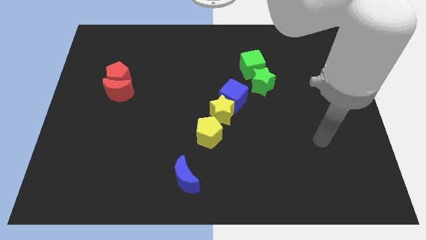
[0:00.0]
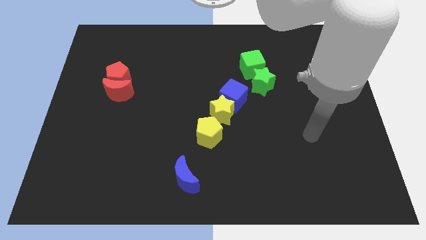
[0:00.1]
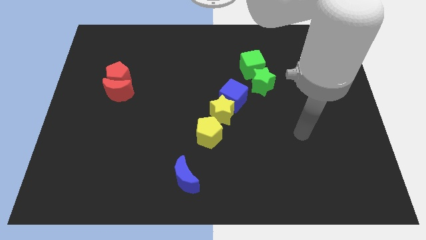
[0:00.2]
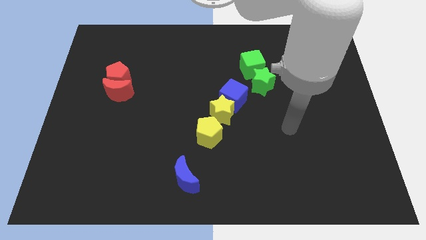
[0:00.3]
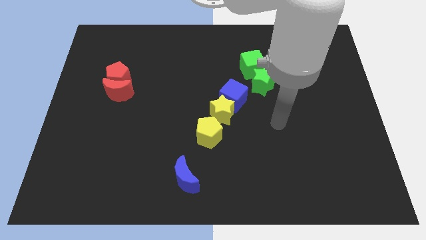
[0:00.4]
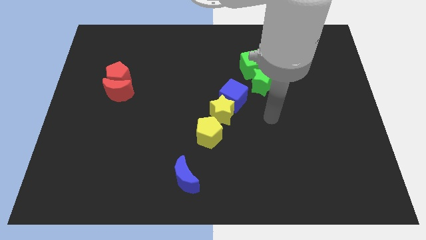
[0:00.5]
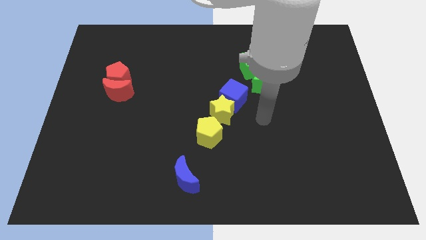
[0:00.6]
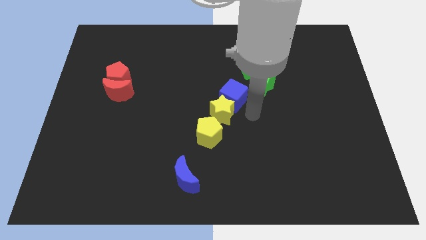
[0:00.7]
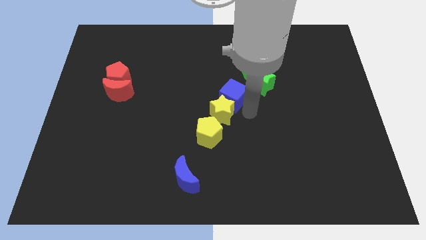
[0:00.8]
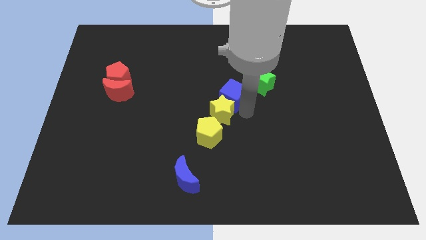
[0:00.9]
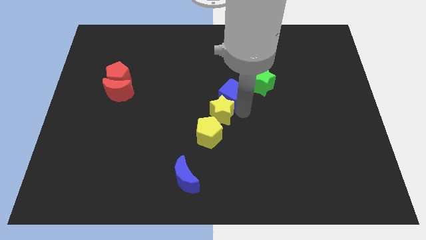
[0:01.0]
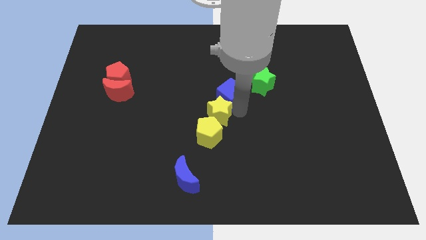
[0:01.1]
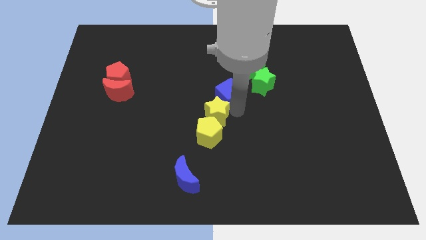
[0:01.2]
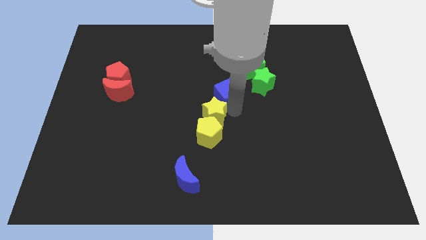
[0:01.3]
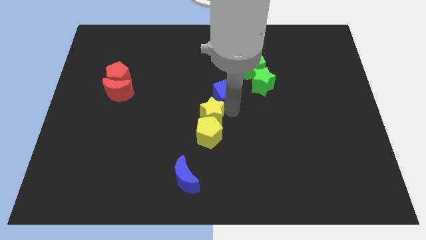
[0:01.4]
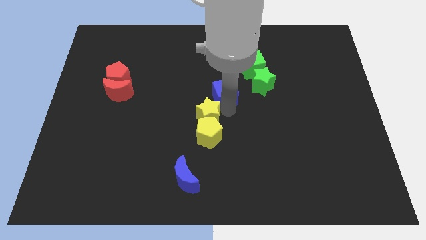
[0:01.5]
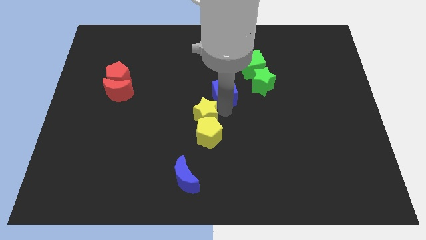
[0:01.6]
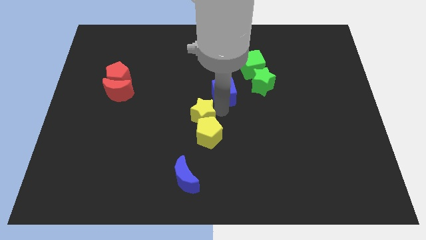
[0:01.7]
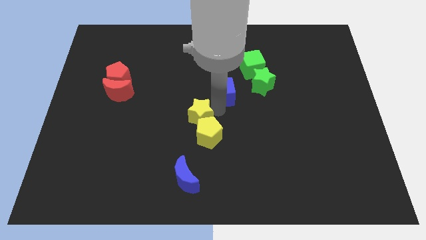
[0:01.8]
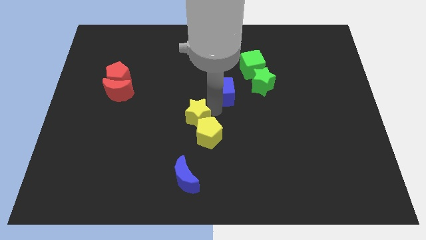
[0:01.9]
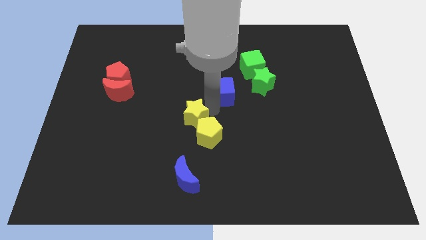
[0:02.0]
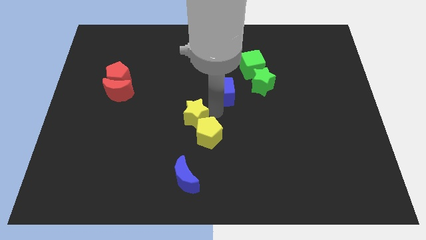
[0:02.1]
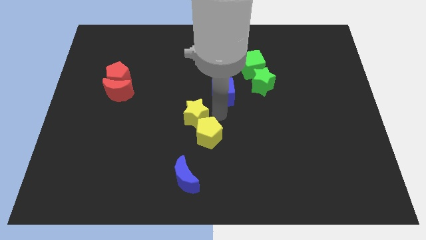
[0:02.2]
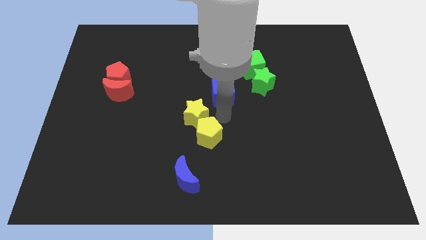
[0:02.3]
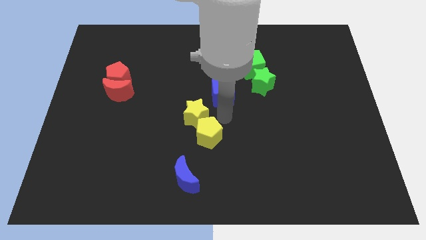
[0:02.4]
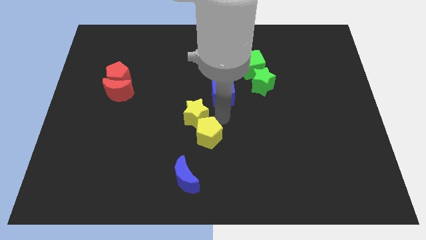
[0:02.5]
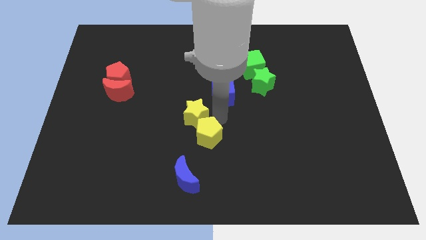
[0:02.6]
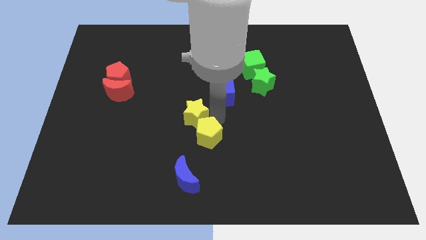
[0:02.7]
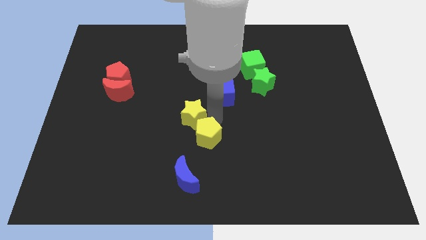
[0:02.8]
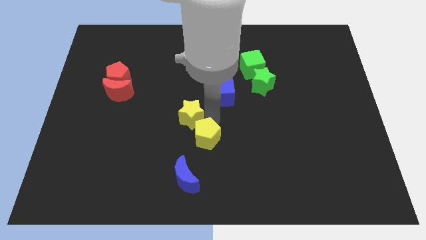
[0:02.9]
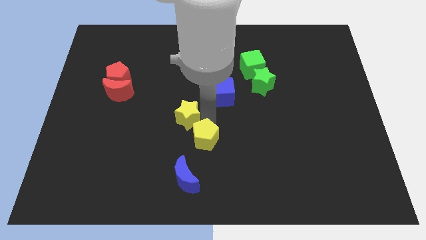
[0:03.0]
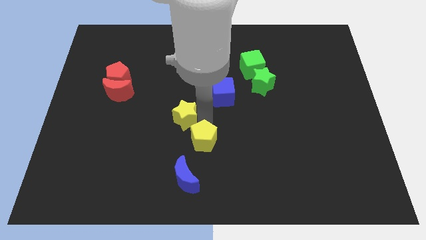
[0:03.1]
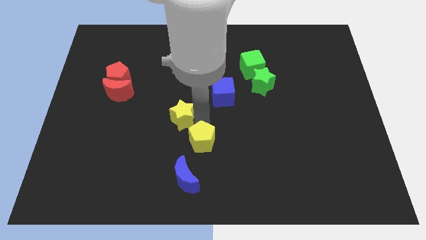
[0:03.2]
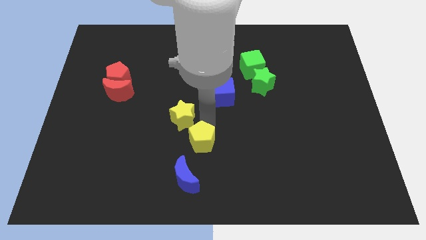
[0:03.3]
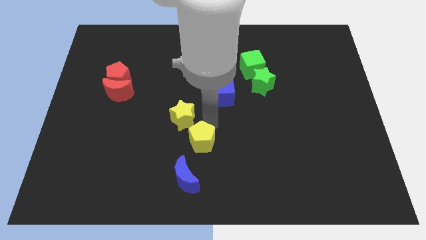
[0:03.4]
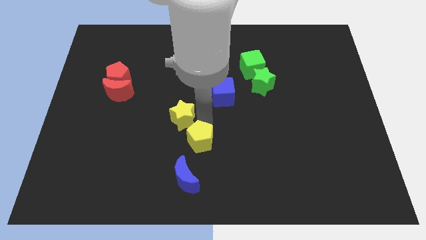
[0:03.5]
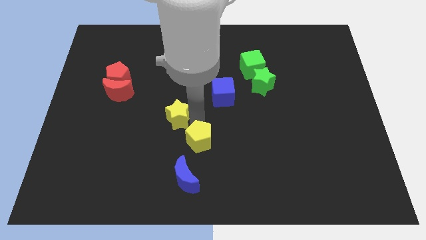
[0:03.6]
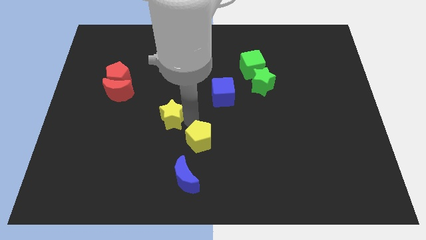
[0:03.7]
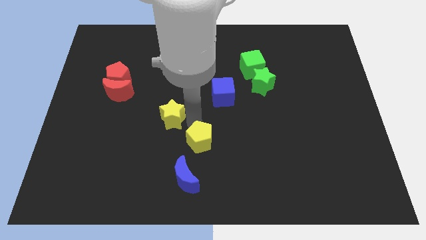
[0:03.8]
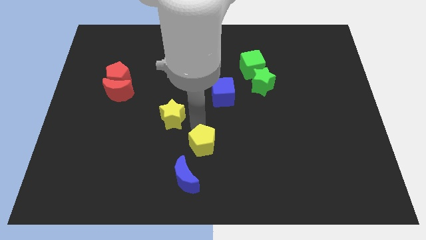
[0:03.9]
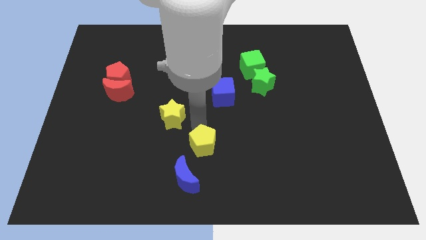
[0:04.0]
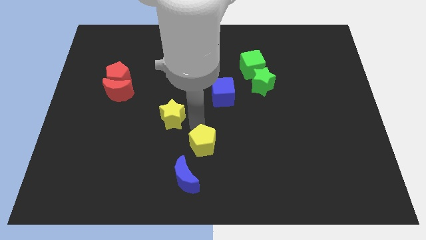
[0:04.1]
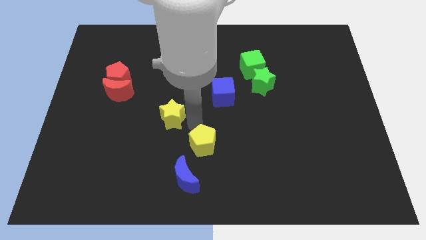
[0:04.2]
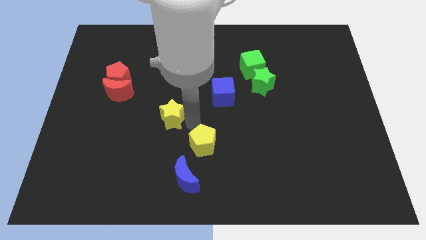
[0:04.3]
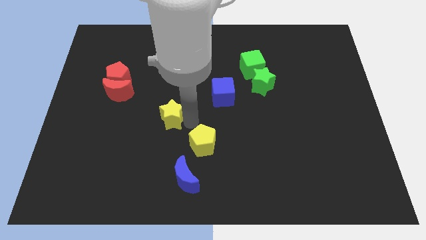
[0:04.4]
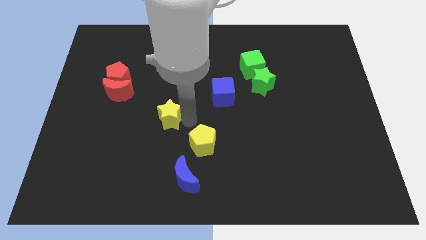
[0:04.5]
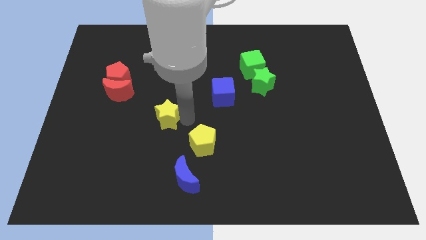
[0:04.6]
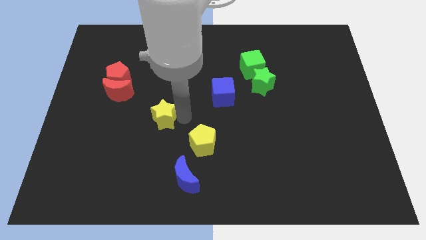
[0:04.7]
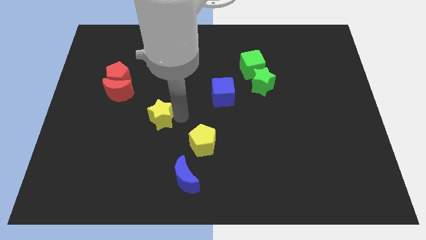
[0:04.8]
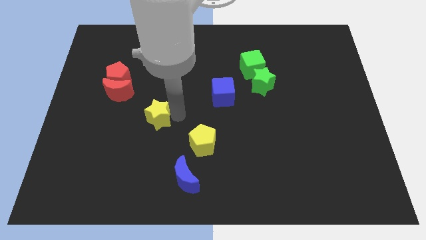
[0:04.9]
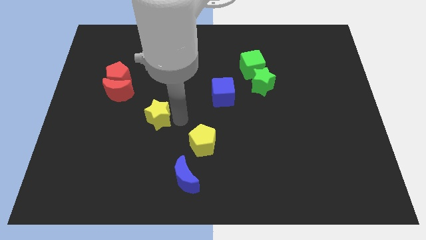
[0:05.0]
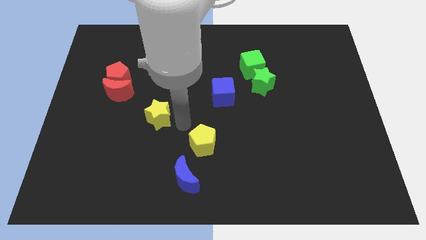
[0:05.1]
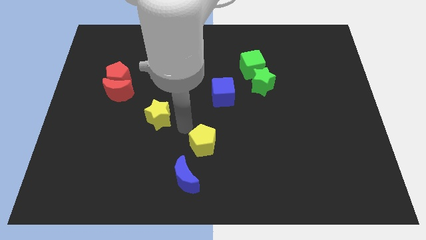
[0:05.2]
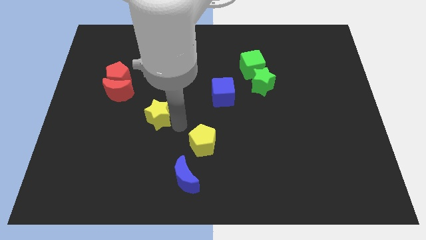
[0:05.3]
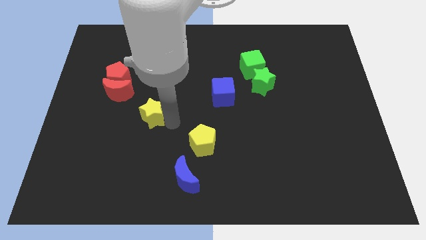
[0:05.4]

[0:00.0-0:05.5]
put the yellow star diagonally down and to the right of the red moon

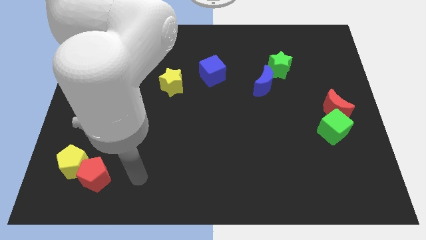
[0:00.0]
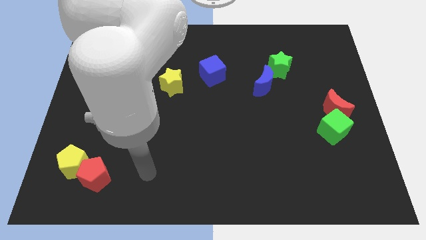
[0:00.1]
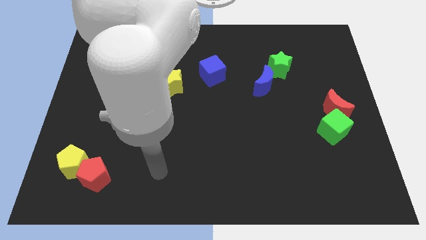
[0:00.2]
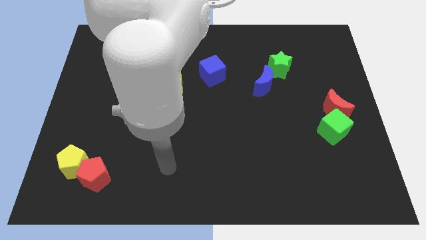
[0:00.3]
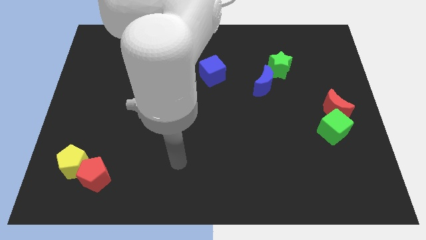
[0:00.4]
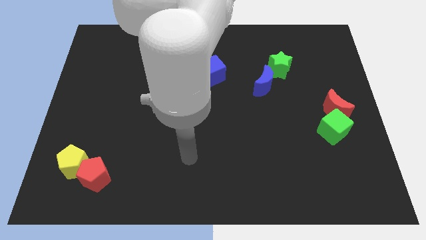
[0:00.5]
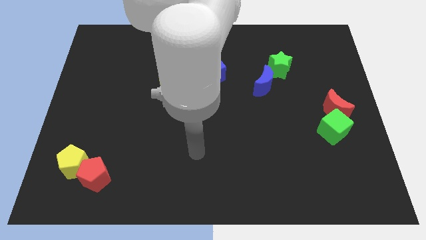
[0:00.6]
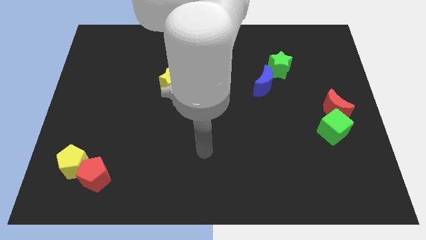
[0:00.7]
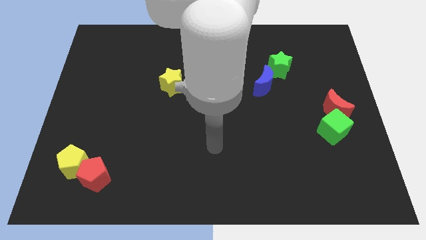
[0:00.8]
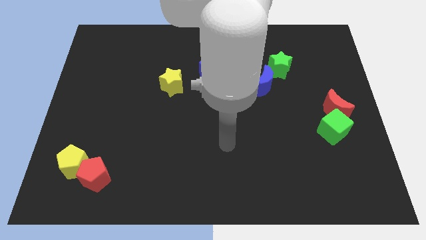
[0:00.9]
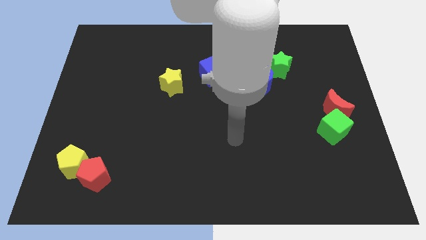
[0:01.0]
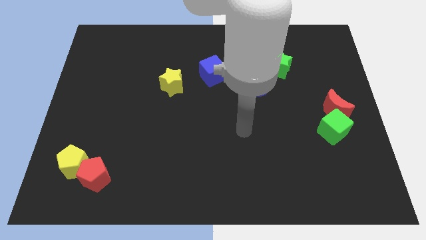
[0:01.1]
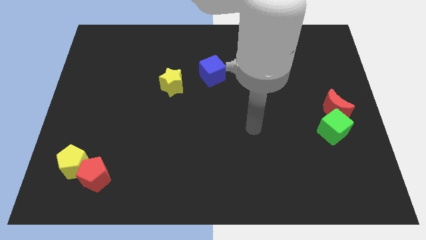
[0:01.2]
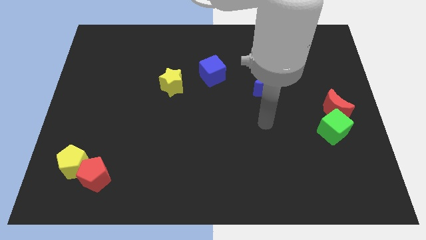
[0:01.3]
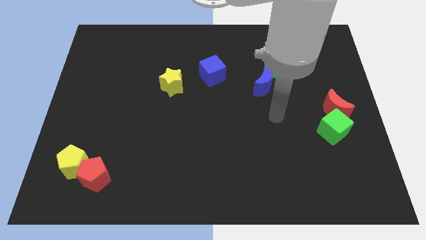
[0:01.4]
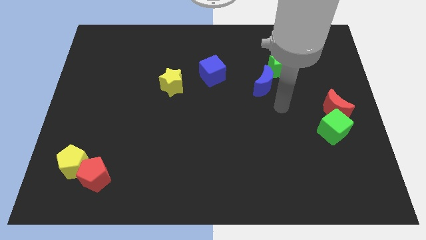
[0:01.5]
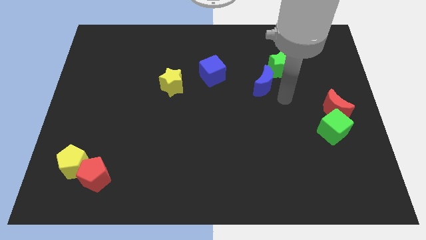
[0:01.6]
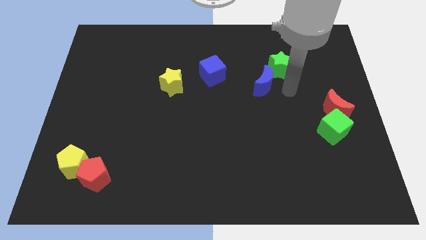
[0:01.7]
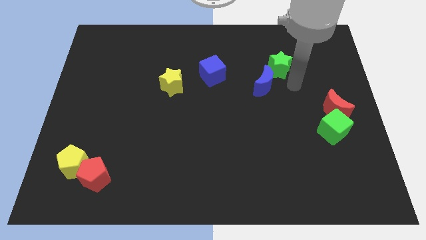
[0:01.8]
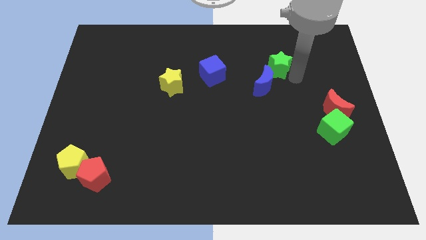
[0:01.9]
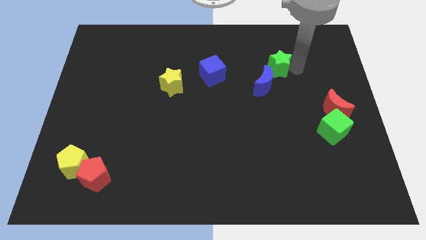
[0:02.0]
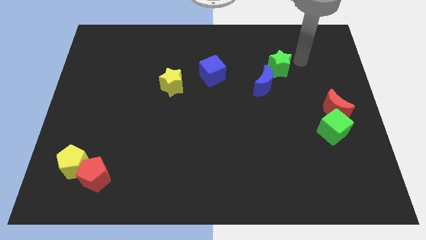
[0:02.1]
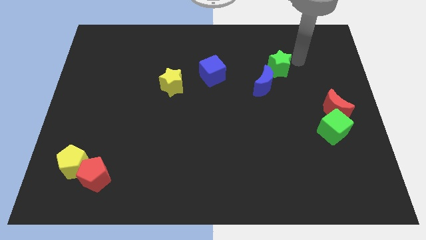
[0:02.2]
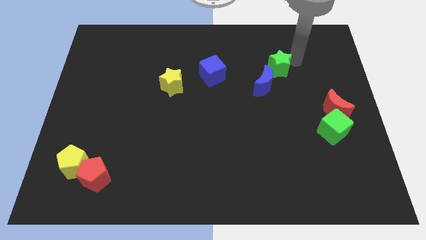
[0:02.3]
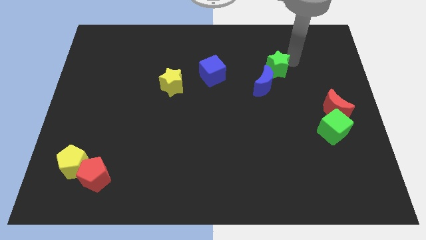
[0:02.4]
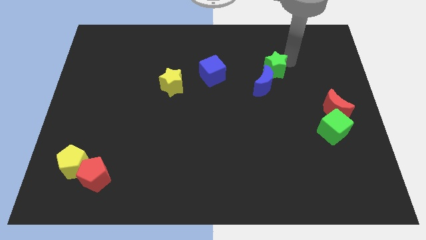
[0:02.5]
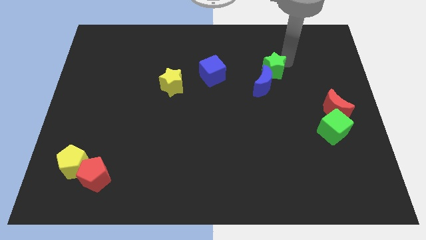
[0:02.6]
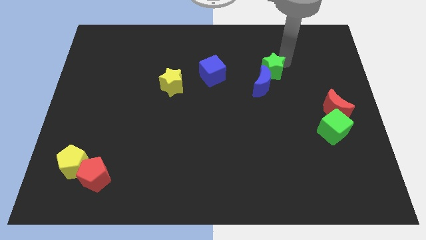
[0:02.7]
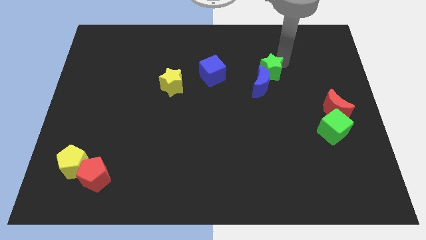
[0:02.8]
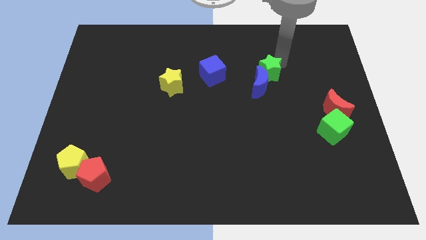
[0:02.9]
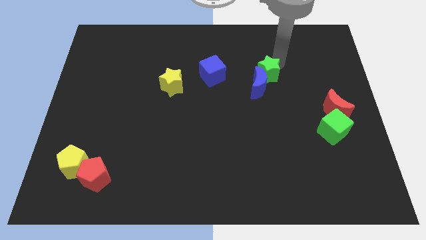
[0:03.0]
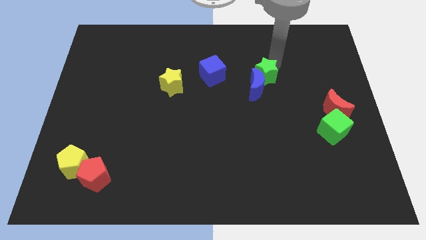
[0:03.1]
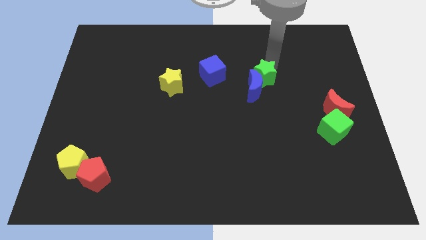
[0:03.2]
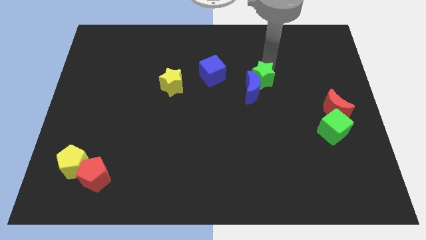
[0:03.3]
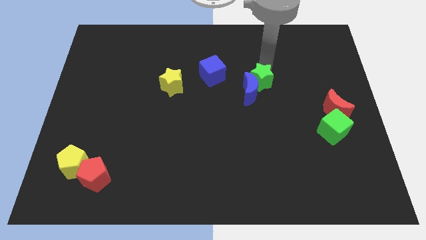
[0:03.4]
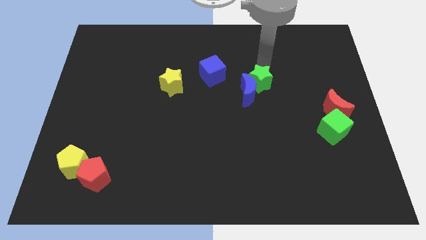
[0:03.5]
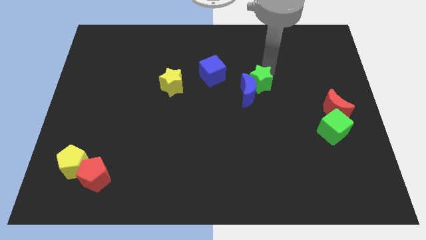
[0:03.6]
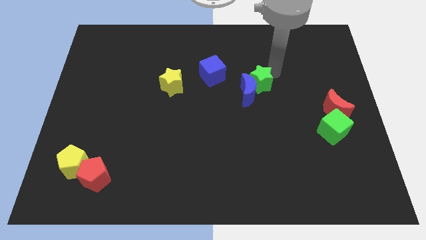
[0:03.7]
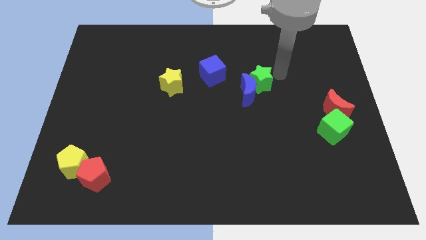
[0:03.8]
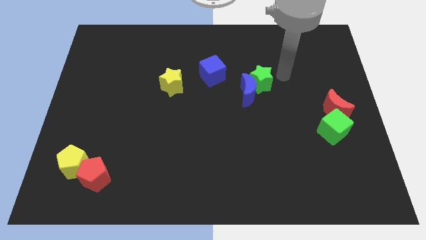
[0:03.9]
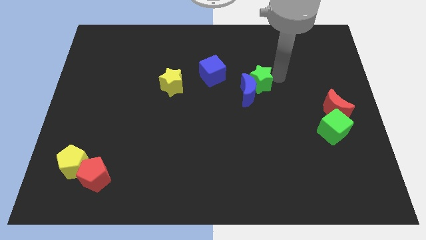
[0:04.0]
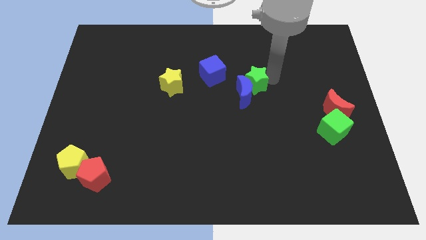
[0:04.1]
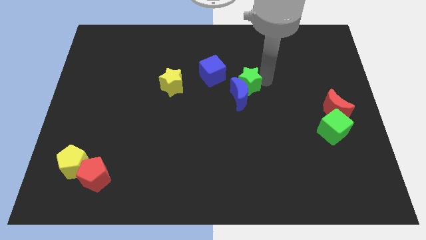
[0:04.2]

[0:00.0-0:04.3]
slide the green star to the bottom right of the blue cube
